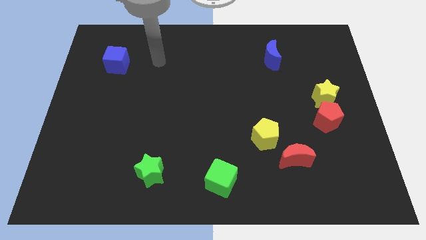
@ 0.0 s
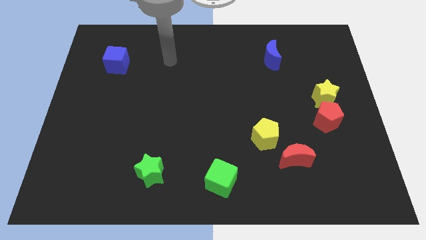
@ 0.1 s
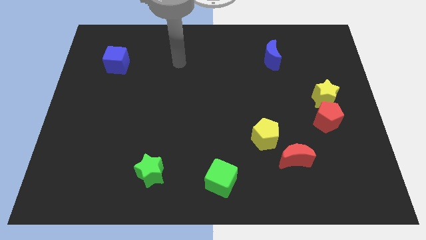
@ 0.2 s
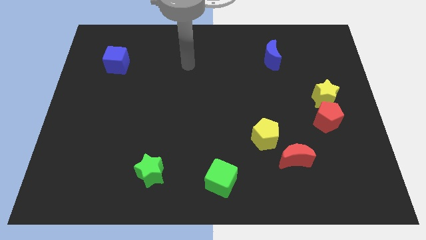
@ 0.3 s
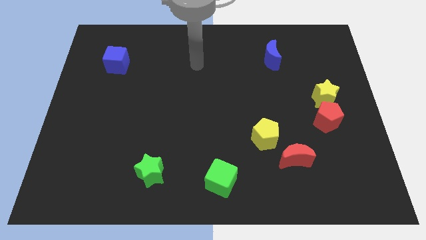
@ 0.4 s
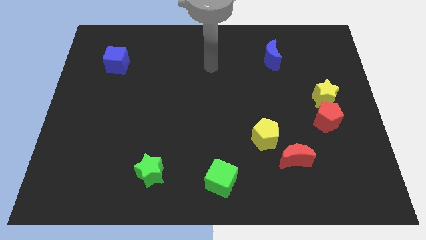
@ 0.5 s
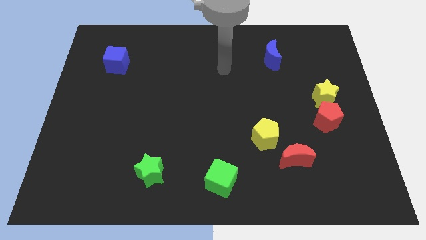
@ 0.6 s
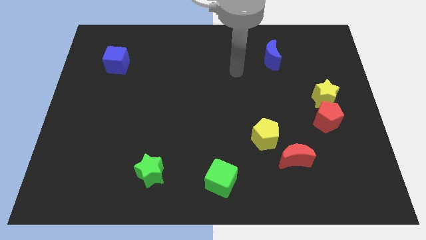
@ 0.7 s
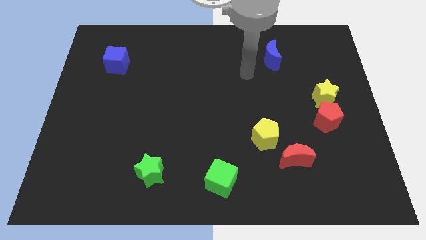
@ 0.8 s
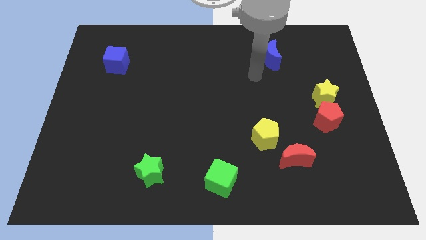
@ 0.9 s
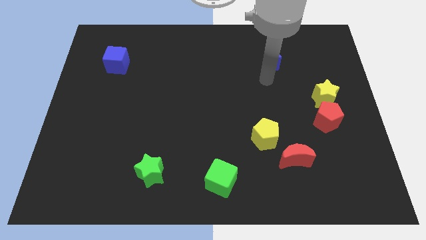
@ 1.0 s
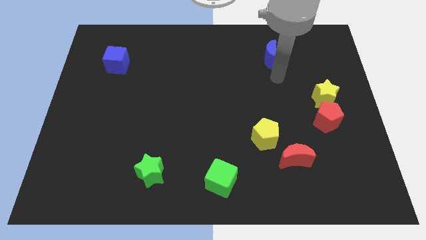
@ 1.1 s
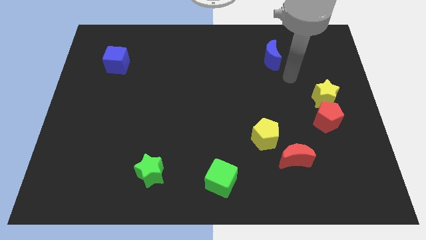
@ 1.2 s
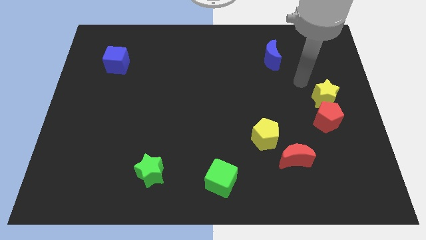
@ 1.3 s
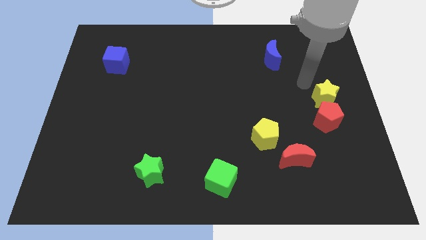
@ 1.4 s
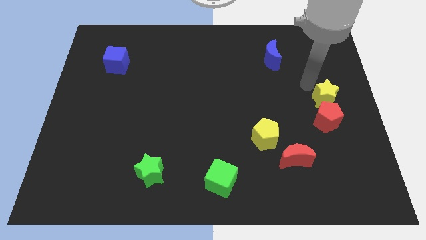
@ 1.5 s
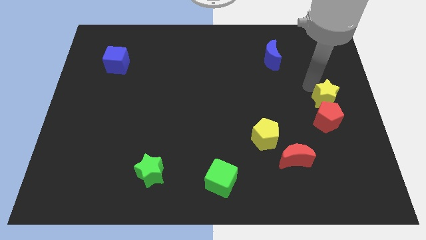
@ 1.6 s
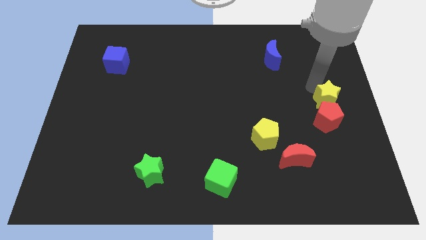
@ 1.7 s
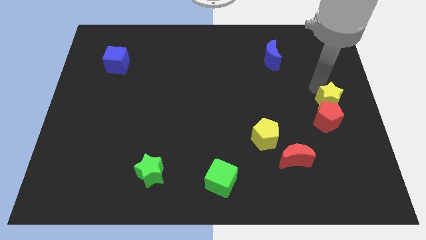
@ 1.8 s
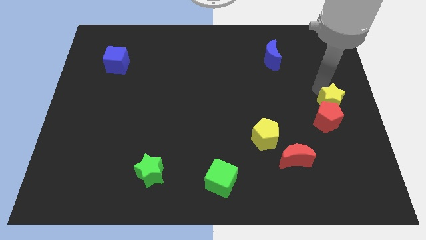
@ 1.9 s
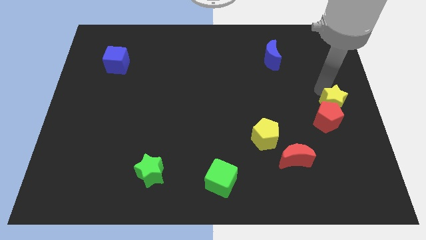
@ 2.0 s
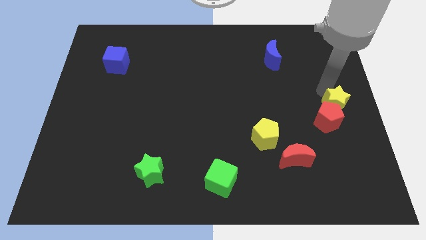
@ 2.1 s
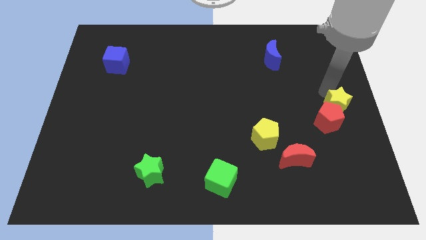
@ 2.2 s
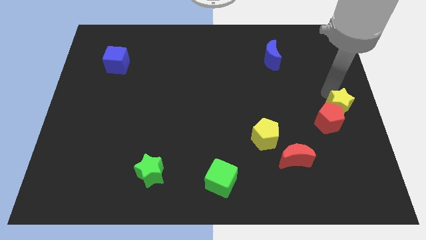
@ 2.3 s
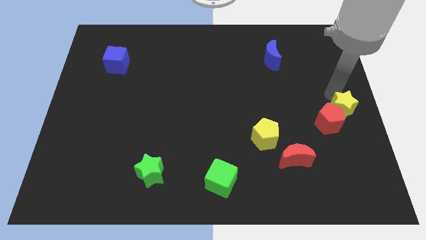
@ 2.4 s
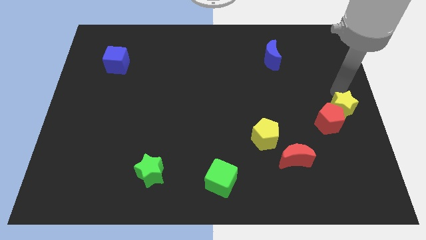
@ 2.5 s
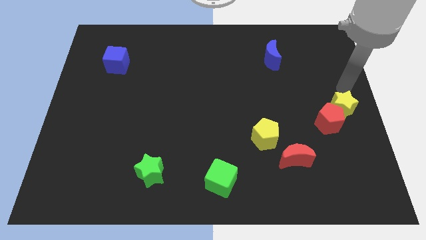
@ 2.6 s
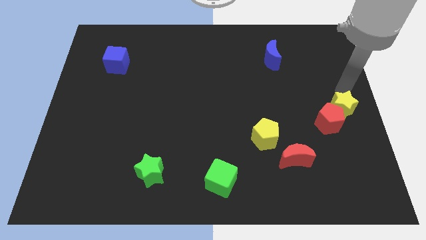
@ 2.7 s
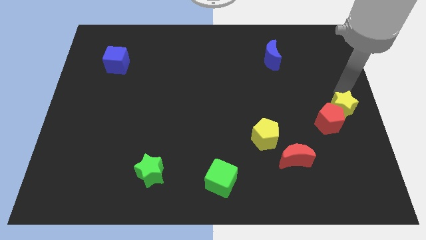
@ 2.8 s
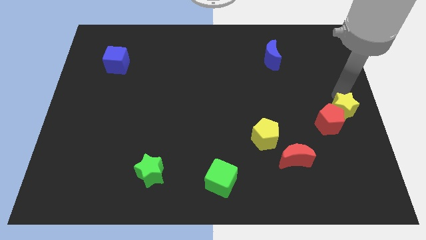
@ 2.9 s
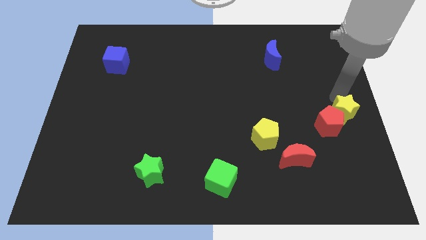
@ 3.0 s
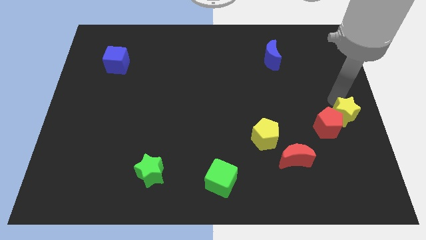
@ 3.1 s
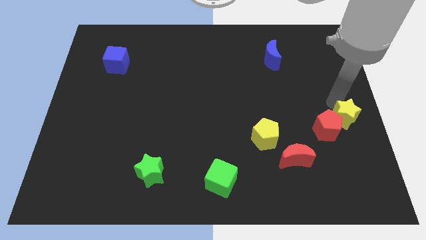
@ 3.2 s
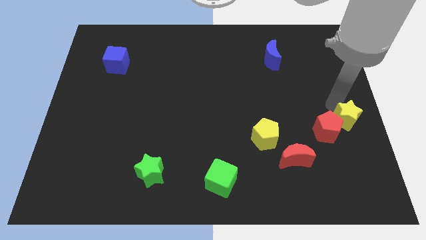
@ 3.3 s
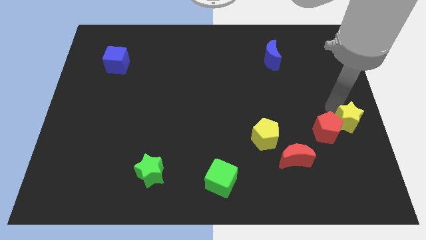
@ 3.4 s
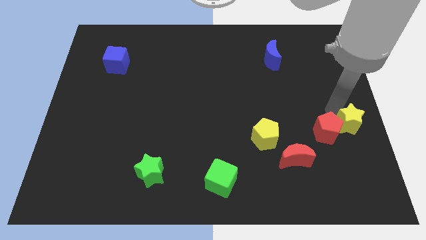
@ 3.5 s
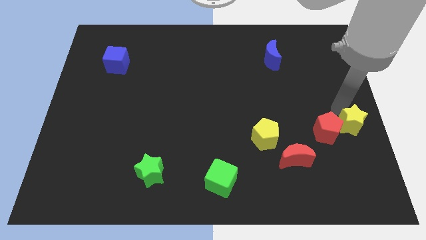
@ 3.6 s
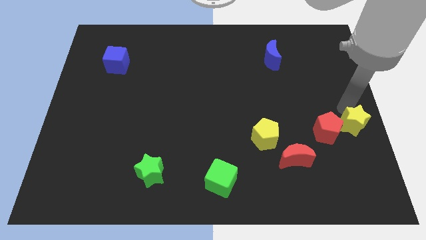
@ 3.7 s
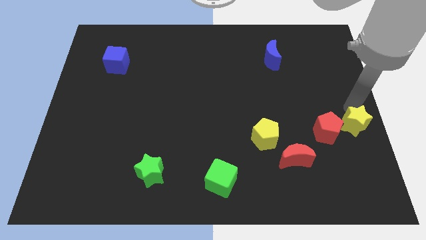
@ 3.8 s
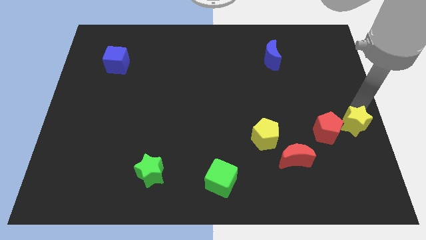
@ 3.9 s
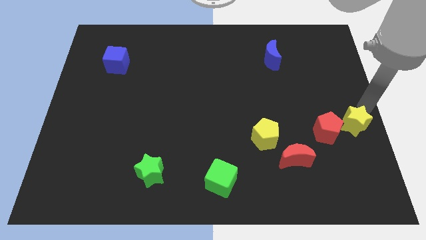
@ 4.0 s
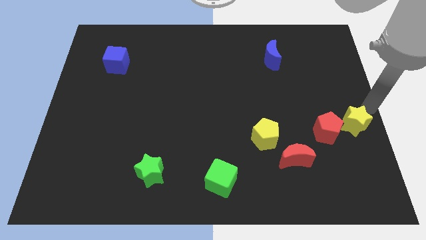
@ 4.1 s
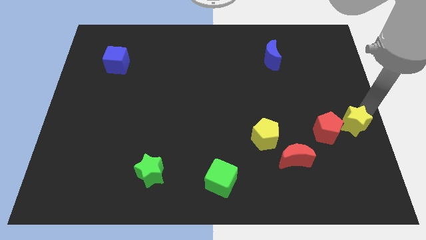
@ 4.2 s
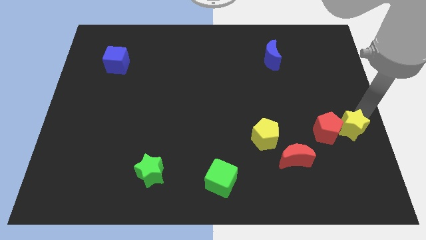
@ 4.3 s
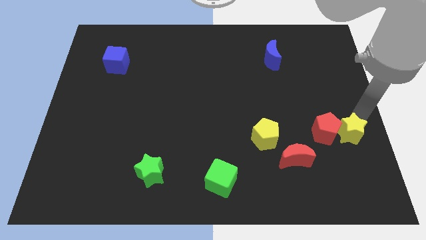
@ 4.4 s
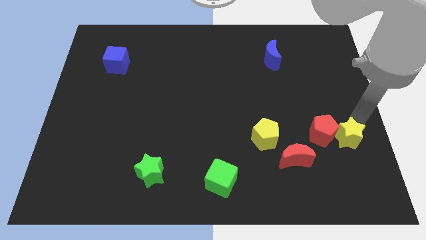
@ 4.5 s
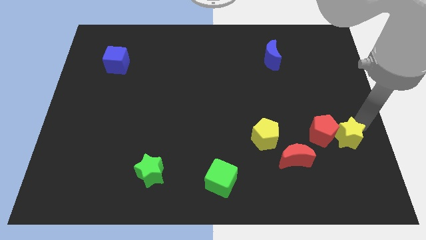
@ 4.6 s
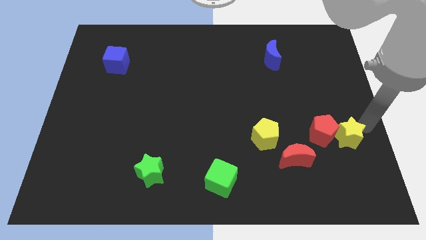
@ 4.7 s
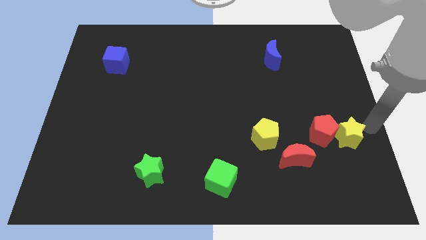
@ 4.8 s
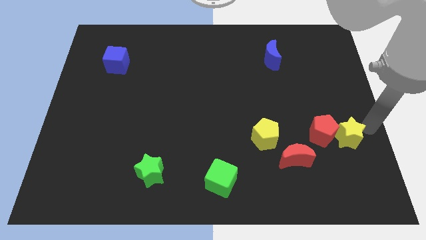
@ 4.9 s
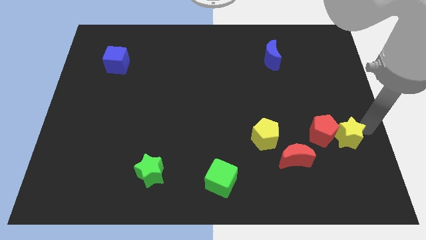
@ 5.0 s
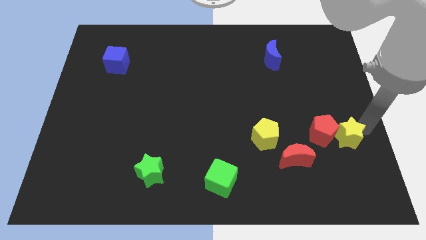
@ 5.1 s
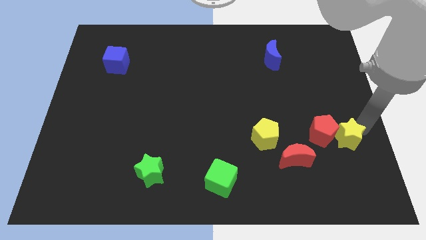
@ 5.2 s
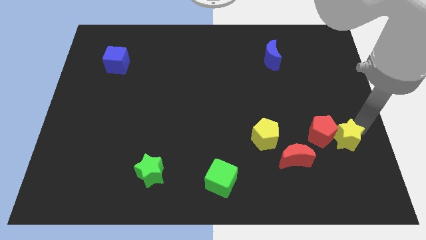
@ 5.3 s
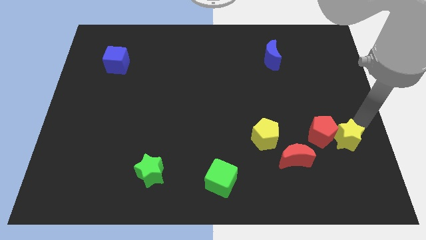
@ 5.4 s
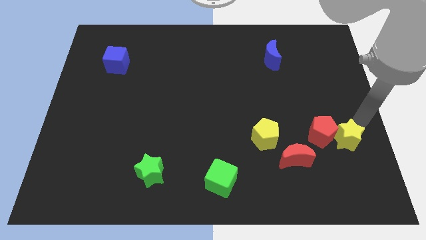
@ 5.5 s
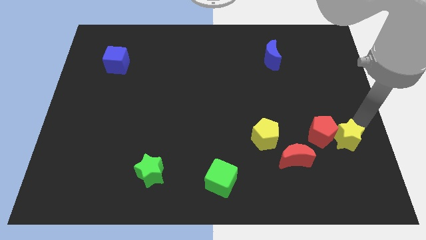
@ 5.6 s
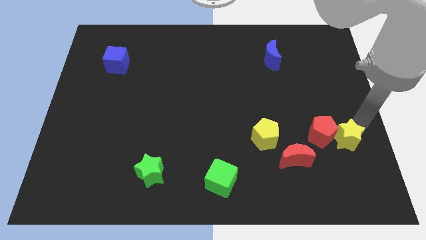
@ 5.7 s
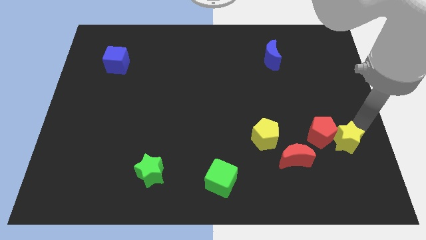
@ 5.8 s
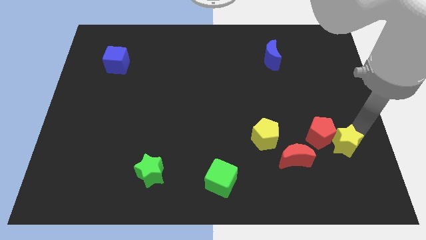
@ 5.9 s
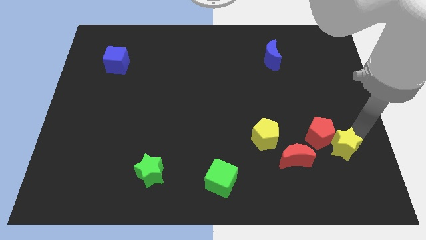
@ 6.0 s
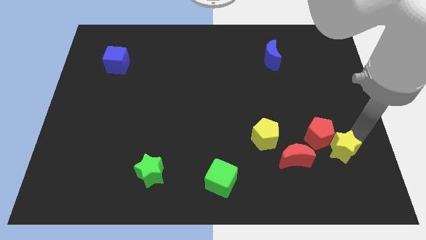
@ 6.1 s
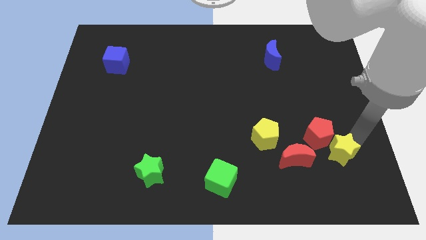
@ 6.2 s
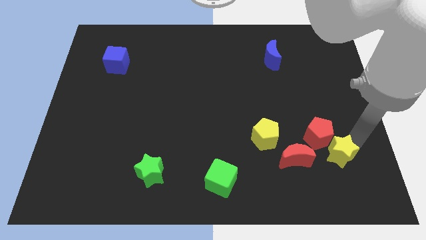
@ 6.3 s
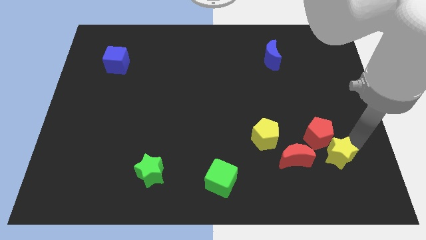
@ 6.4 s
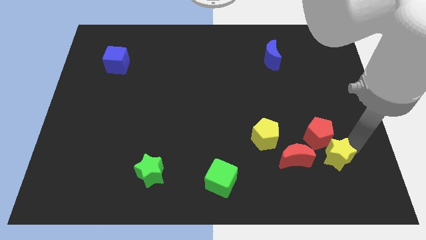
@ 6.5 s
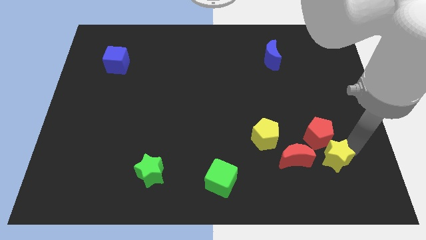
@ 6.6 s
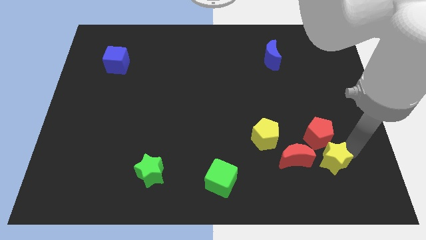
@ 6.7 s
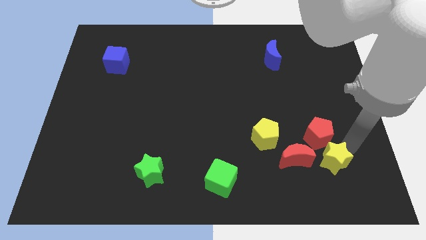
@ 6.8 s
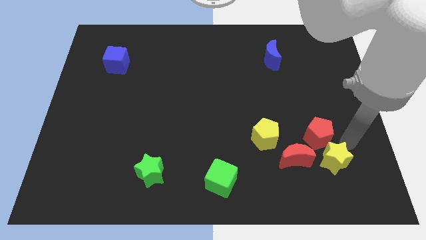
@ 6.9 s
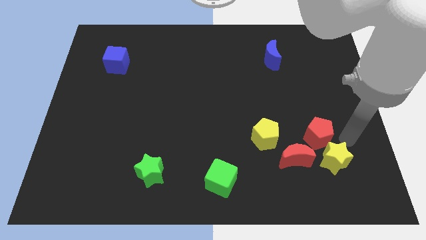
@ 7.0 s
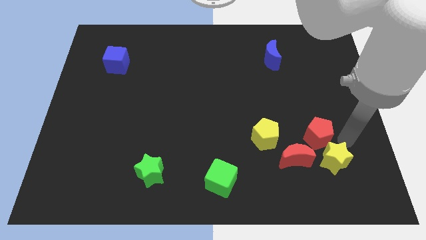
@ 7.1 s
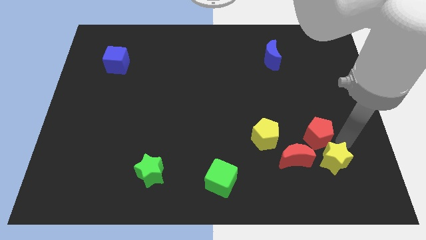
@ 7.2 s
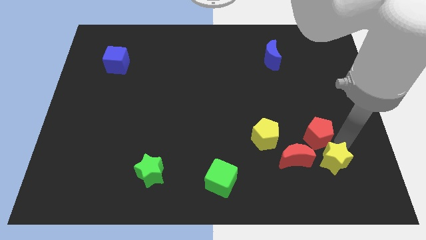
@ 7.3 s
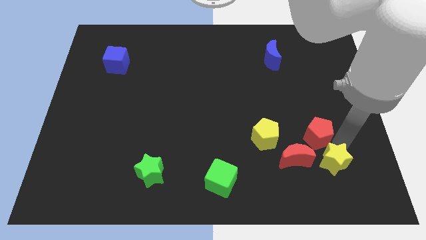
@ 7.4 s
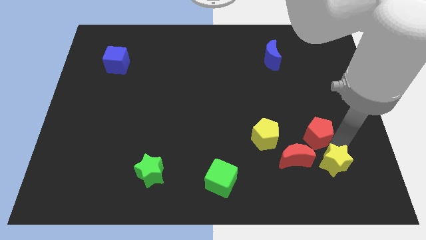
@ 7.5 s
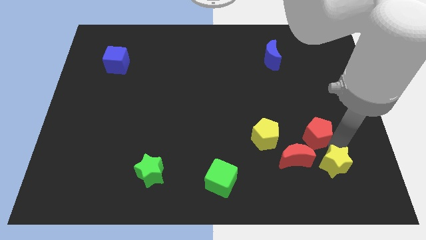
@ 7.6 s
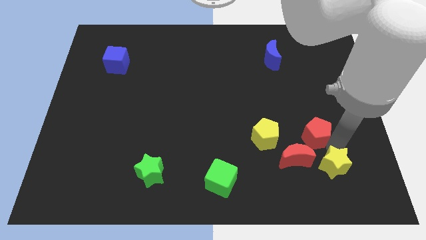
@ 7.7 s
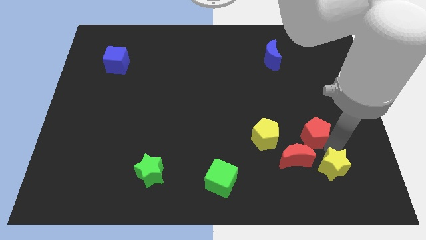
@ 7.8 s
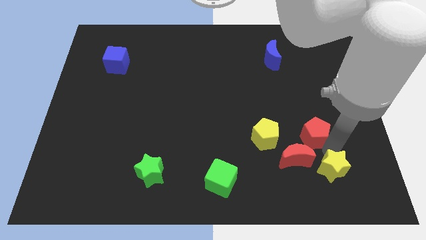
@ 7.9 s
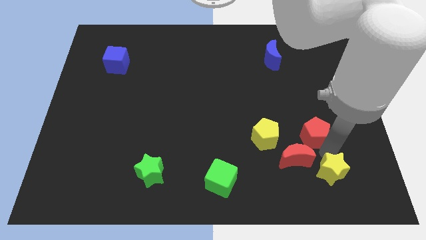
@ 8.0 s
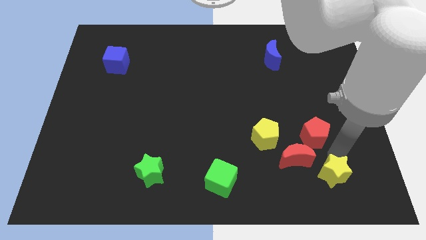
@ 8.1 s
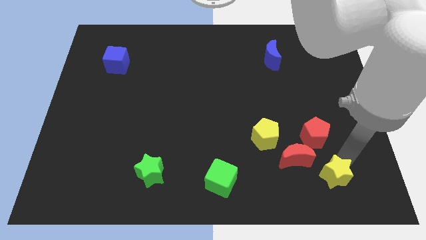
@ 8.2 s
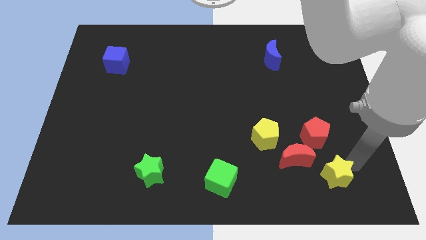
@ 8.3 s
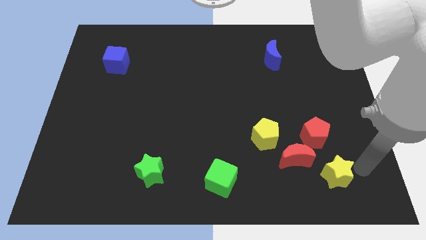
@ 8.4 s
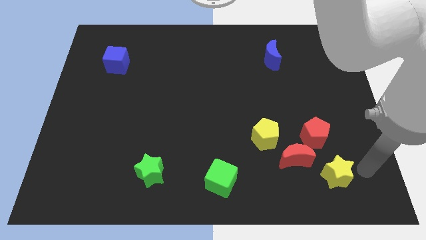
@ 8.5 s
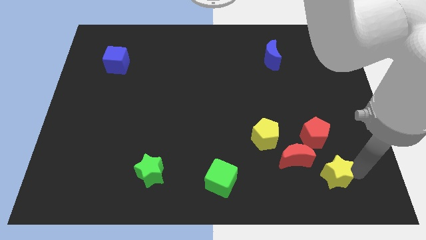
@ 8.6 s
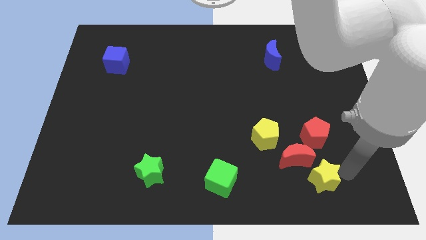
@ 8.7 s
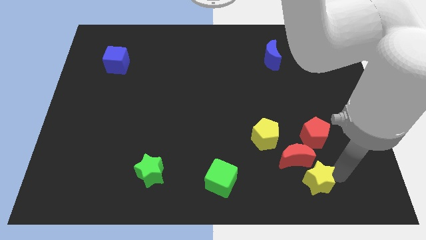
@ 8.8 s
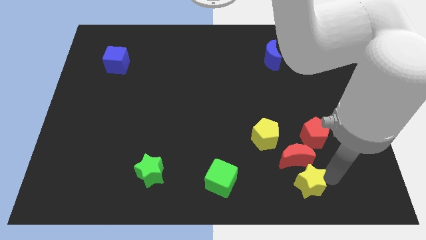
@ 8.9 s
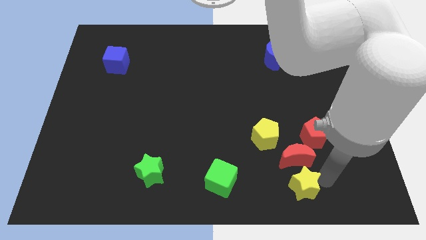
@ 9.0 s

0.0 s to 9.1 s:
move the yellow star to the bottom left of the red moon
